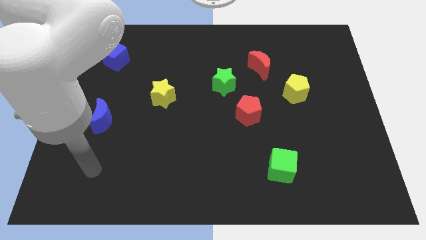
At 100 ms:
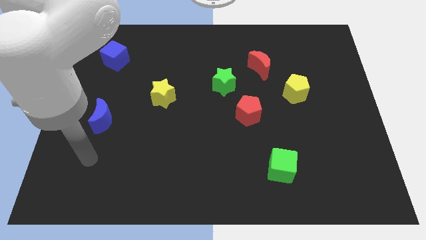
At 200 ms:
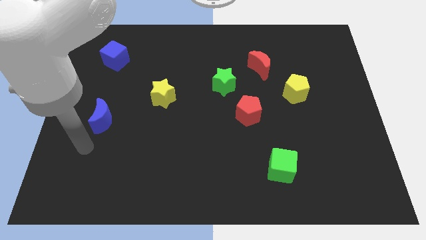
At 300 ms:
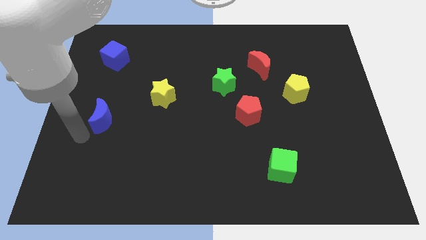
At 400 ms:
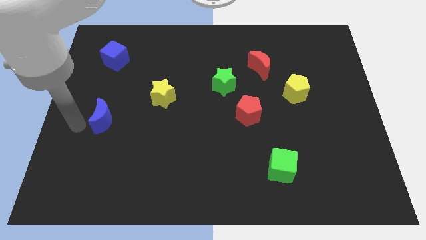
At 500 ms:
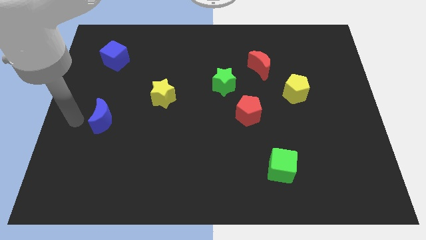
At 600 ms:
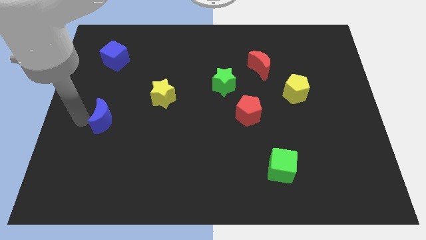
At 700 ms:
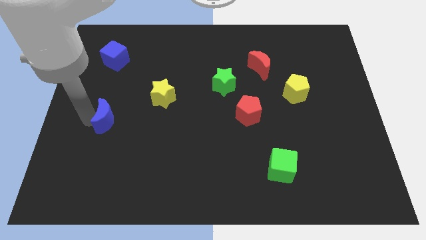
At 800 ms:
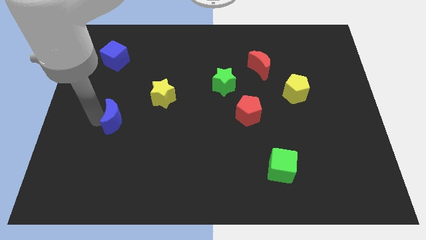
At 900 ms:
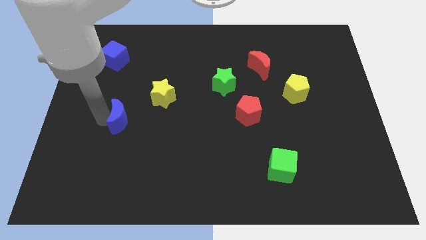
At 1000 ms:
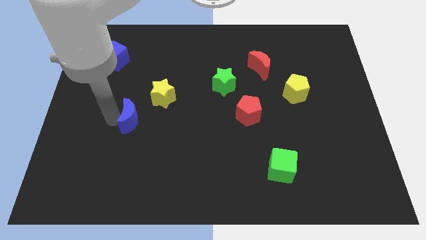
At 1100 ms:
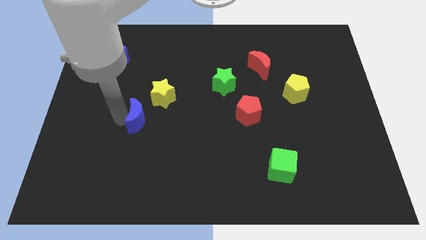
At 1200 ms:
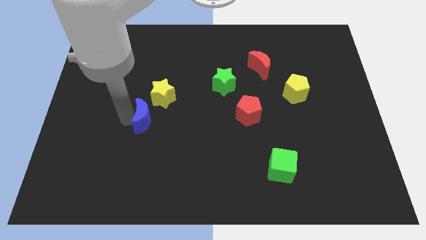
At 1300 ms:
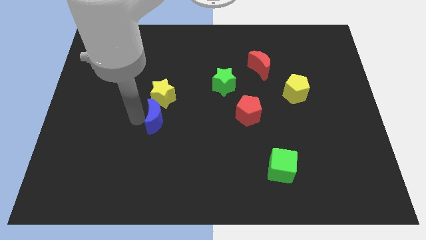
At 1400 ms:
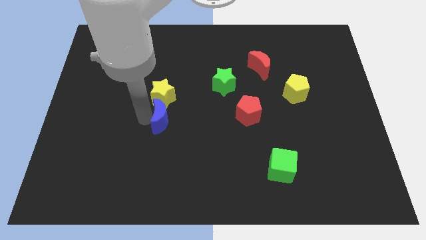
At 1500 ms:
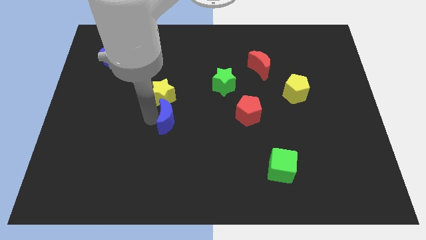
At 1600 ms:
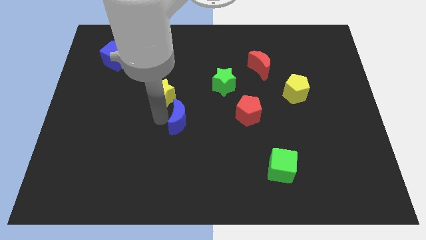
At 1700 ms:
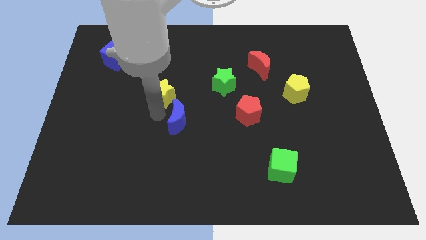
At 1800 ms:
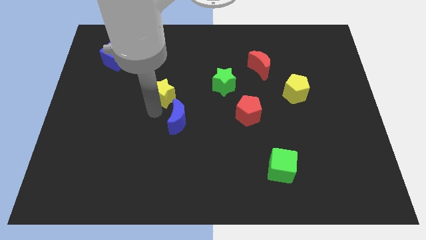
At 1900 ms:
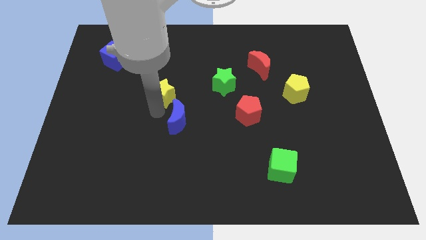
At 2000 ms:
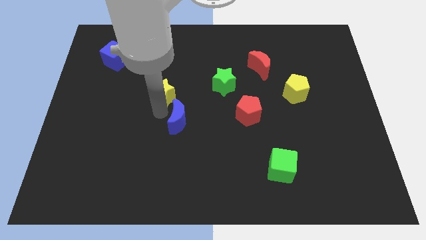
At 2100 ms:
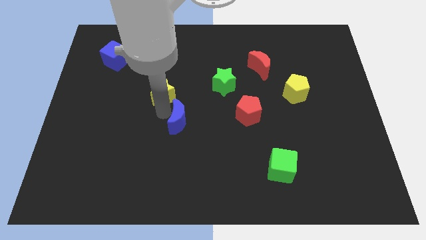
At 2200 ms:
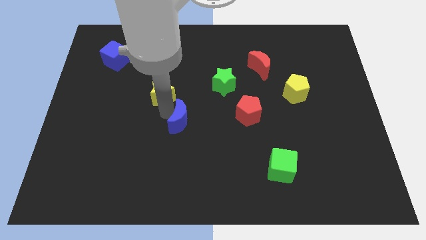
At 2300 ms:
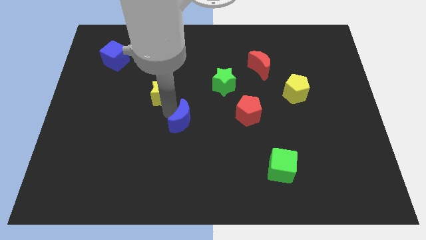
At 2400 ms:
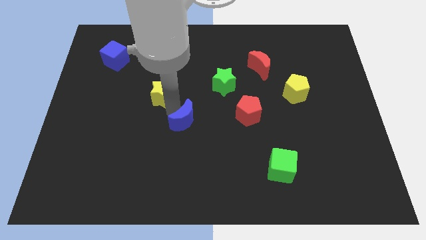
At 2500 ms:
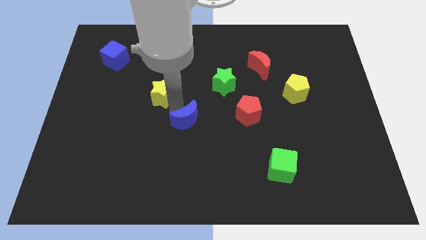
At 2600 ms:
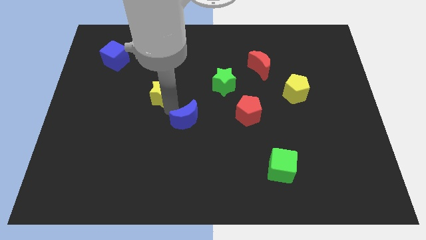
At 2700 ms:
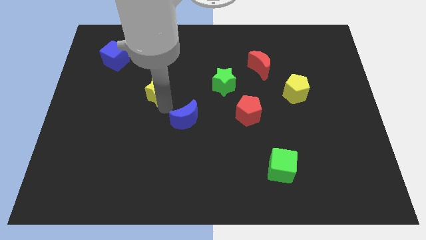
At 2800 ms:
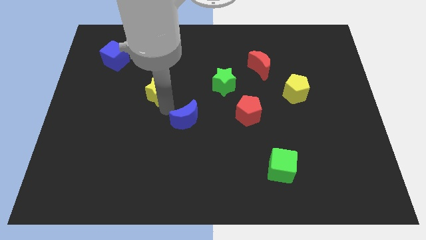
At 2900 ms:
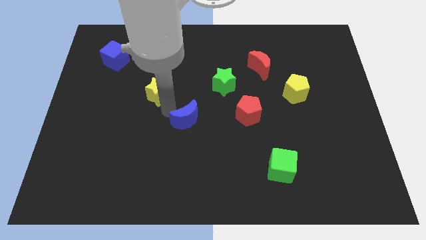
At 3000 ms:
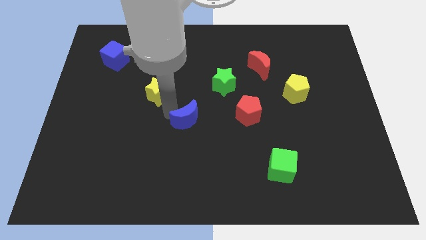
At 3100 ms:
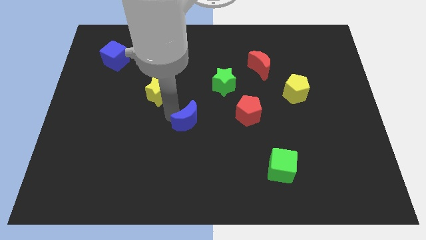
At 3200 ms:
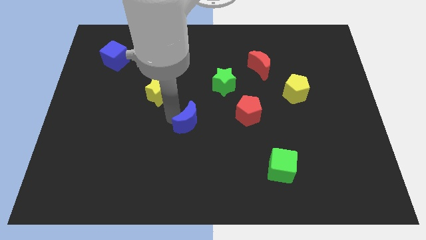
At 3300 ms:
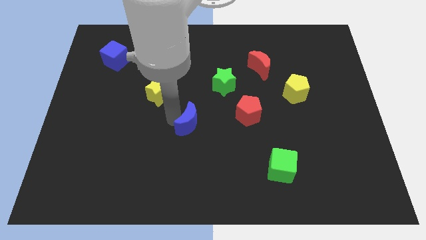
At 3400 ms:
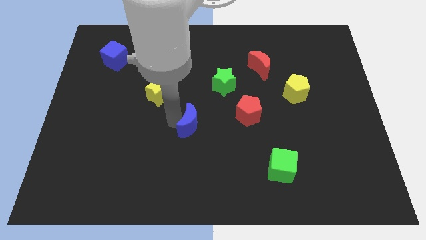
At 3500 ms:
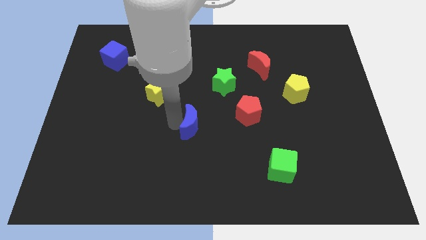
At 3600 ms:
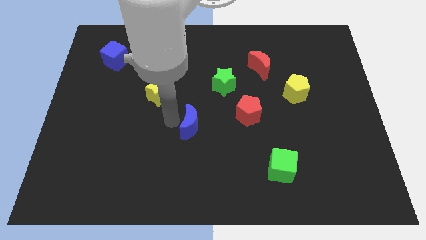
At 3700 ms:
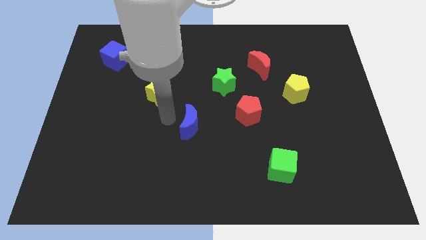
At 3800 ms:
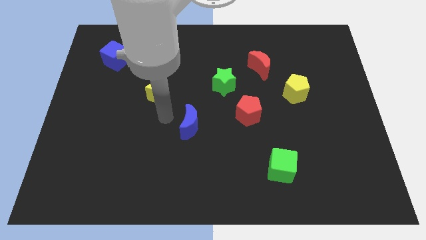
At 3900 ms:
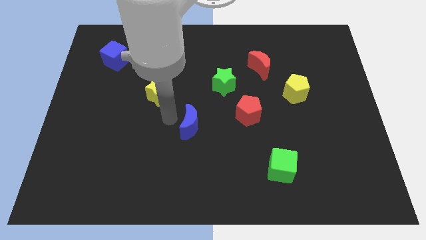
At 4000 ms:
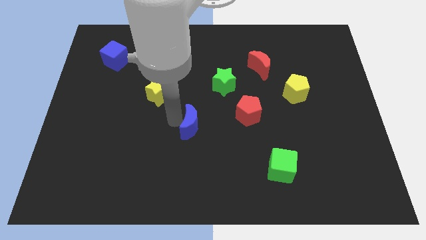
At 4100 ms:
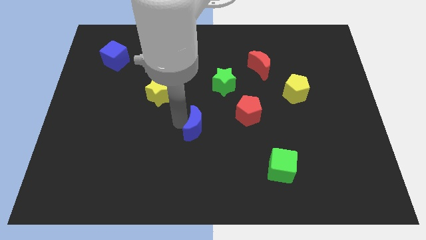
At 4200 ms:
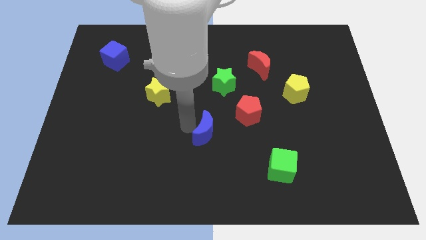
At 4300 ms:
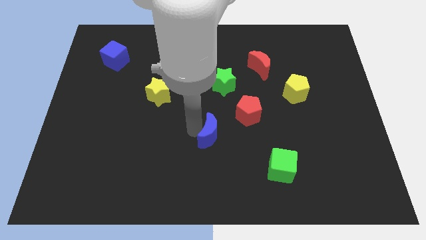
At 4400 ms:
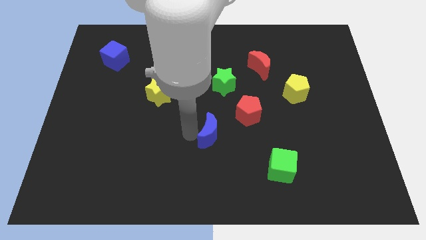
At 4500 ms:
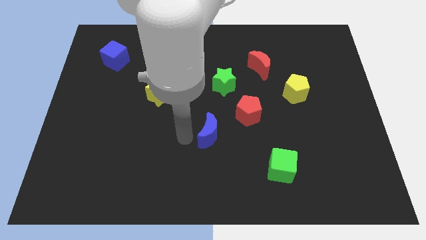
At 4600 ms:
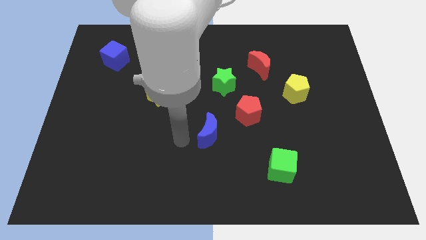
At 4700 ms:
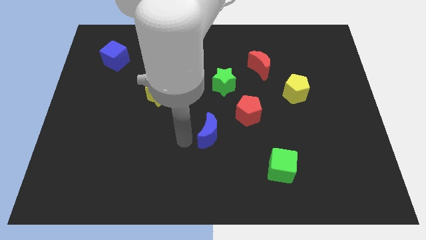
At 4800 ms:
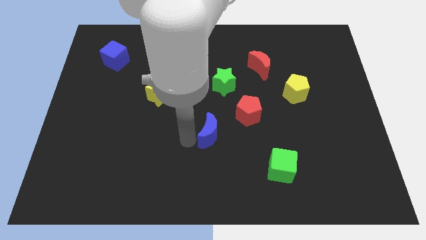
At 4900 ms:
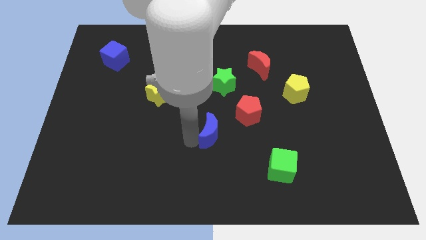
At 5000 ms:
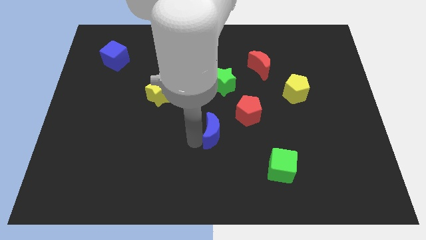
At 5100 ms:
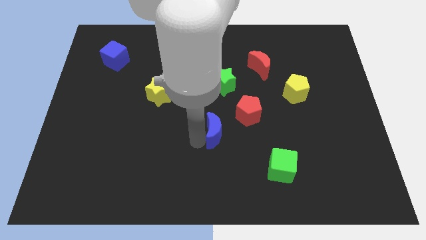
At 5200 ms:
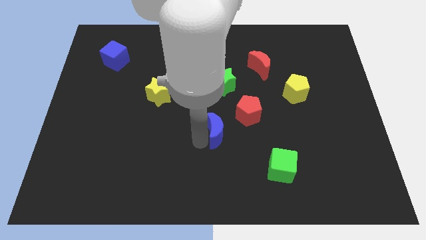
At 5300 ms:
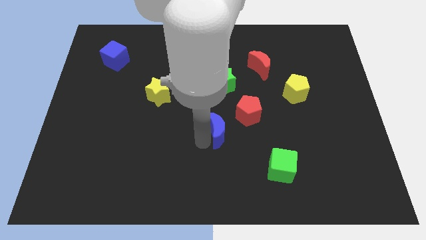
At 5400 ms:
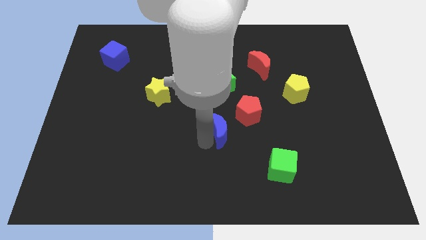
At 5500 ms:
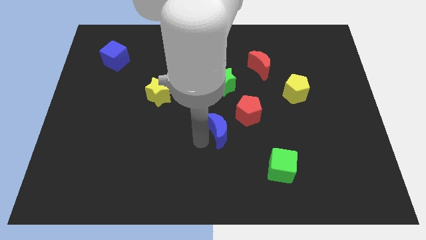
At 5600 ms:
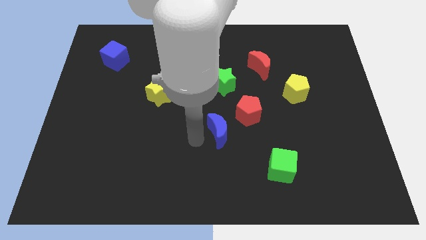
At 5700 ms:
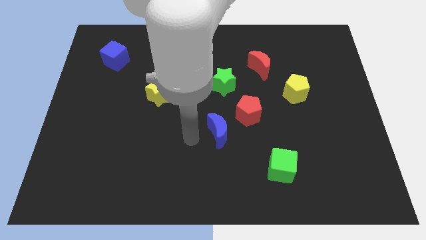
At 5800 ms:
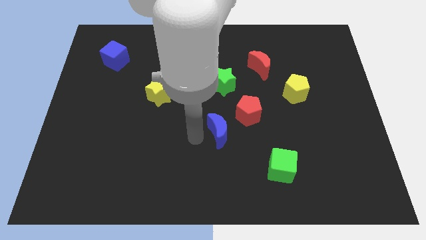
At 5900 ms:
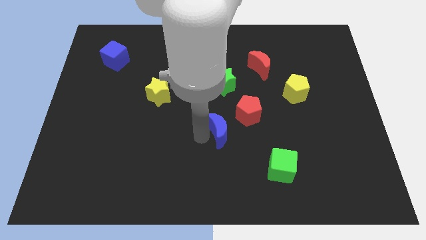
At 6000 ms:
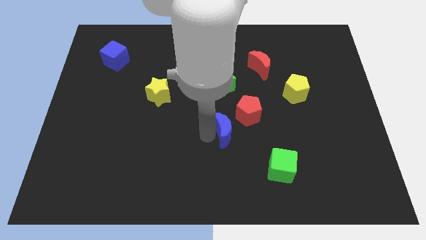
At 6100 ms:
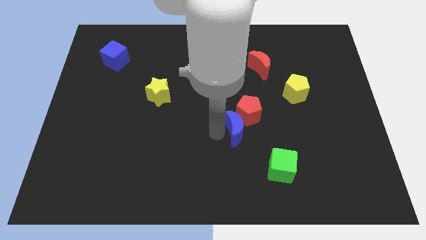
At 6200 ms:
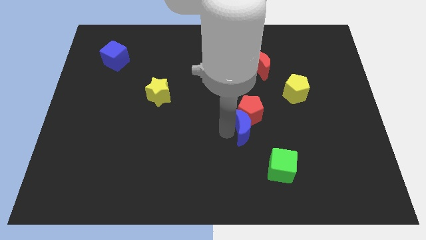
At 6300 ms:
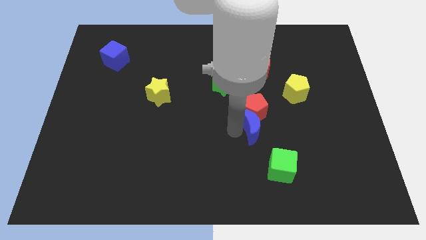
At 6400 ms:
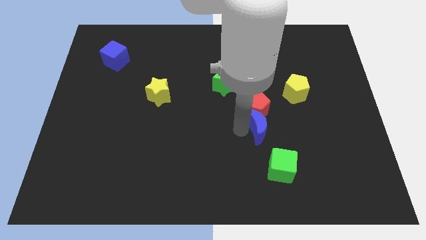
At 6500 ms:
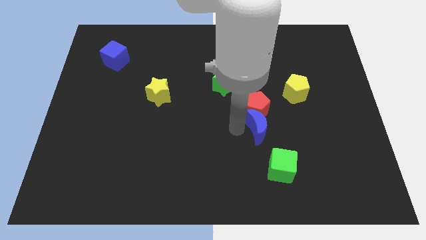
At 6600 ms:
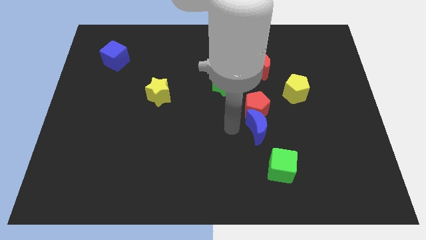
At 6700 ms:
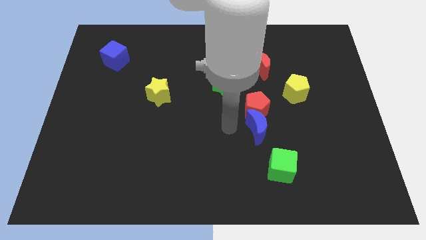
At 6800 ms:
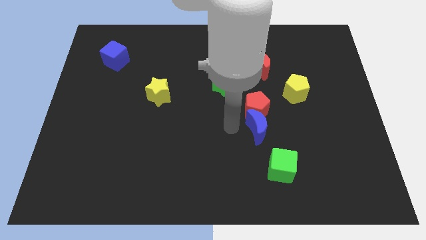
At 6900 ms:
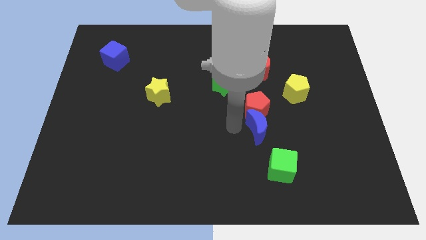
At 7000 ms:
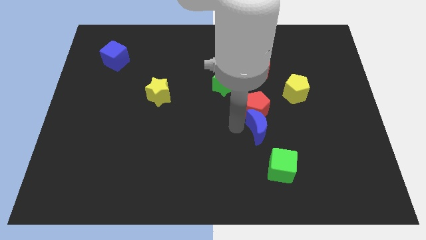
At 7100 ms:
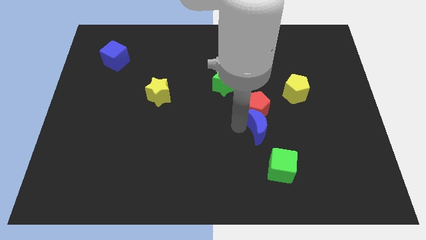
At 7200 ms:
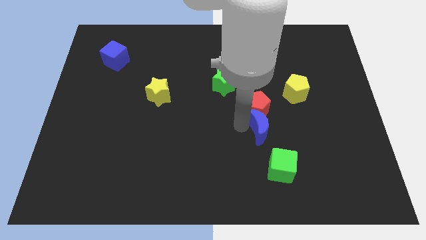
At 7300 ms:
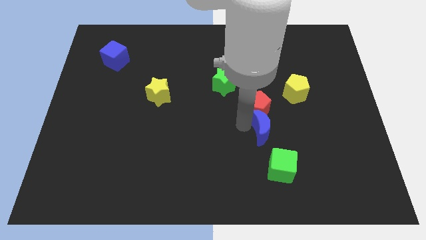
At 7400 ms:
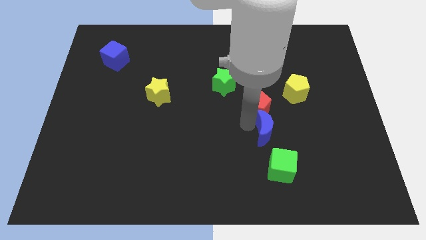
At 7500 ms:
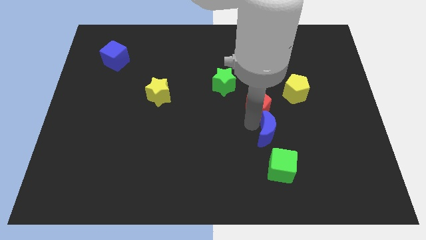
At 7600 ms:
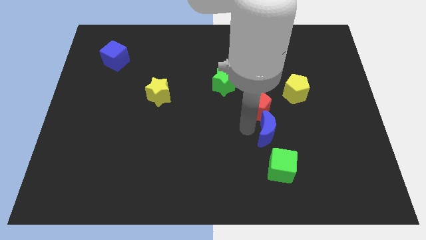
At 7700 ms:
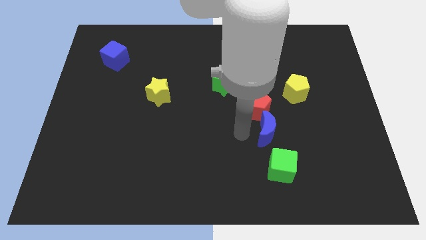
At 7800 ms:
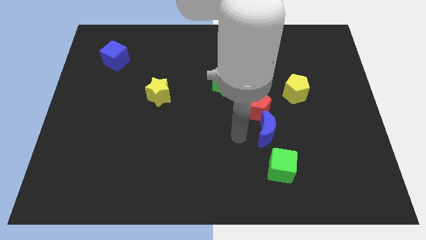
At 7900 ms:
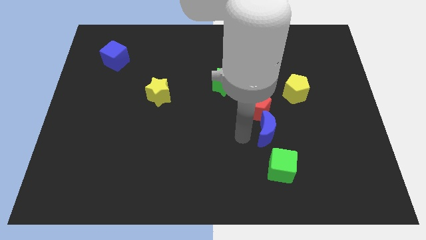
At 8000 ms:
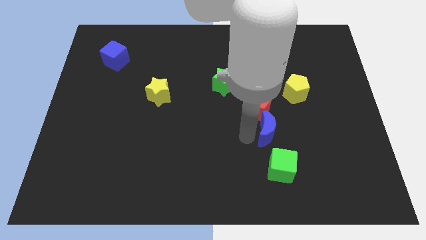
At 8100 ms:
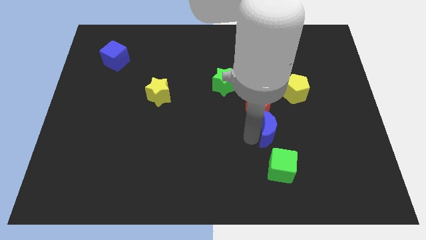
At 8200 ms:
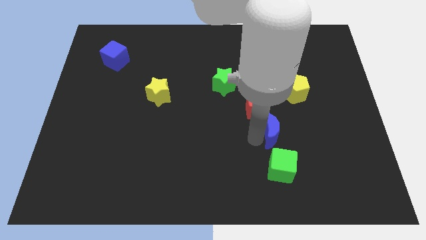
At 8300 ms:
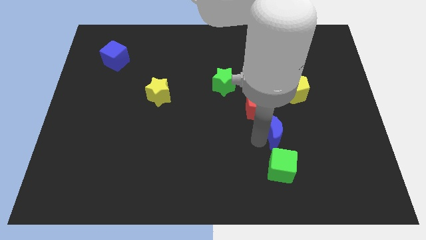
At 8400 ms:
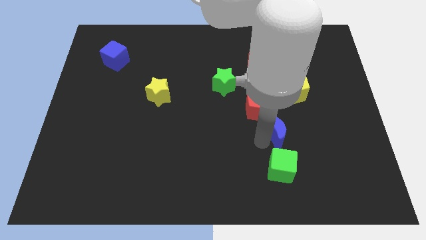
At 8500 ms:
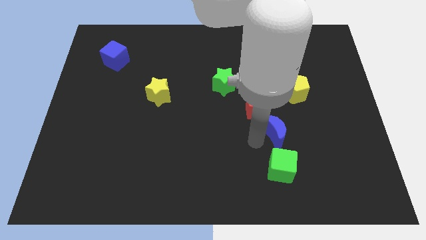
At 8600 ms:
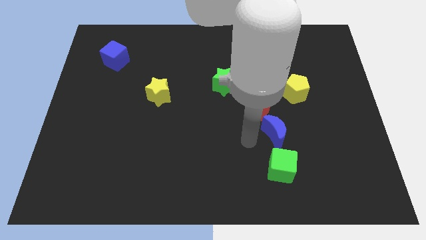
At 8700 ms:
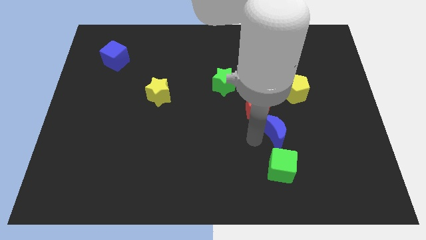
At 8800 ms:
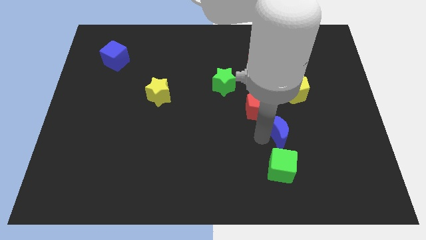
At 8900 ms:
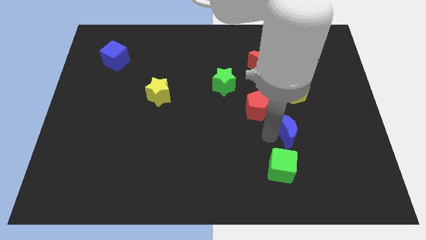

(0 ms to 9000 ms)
move the blue moon below the yellow pentagon
